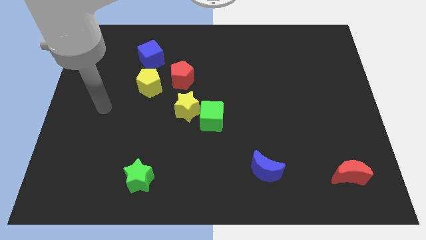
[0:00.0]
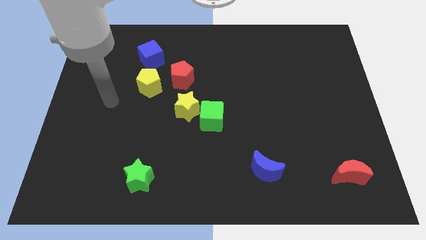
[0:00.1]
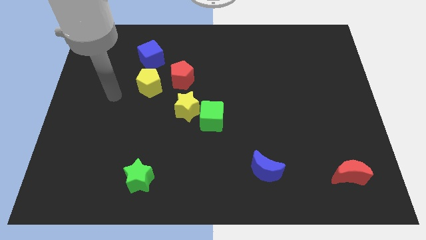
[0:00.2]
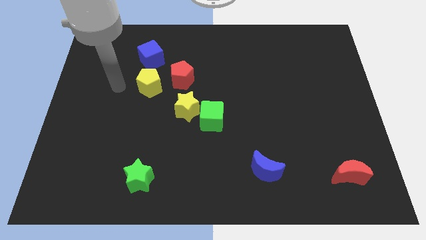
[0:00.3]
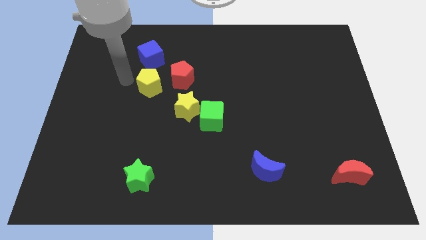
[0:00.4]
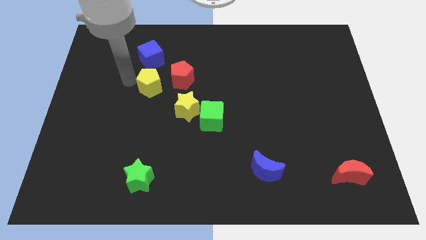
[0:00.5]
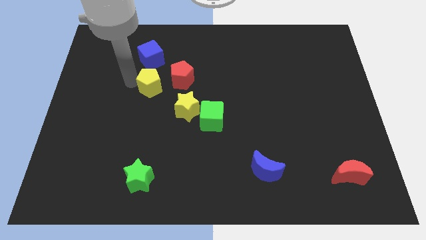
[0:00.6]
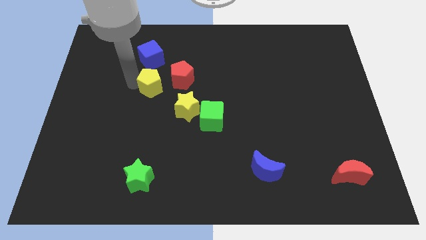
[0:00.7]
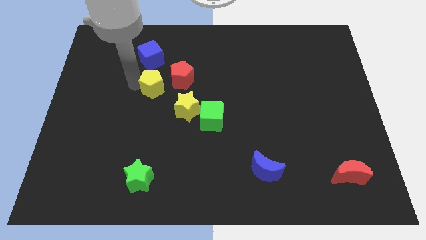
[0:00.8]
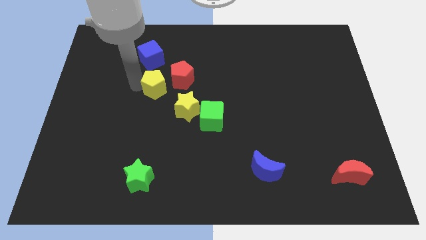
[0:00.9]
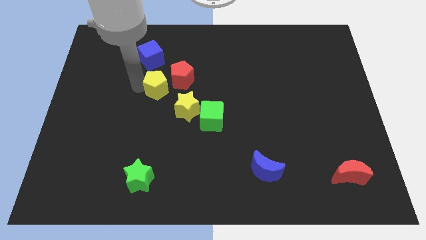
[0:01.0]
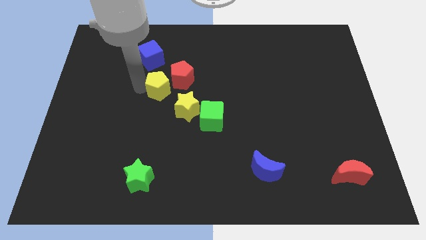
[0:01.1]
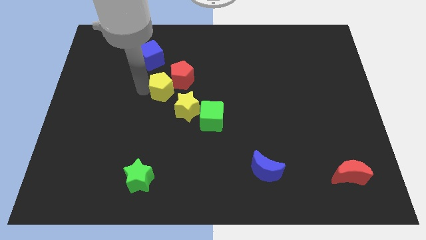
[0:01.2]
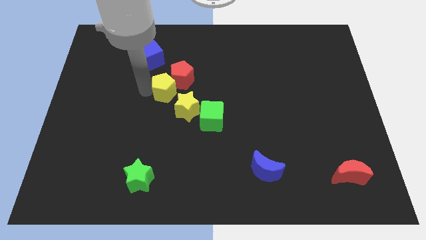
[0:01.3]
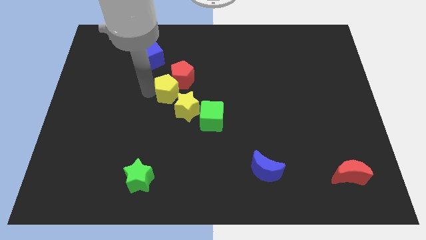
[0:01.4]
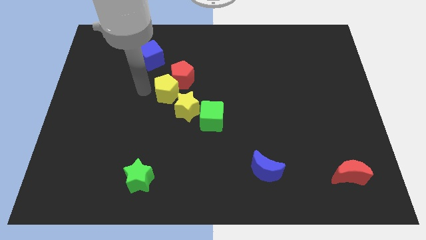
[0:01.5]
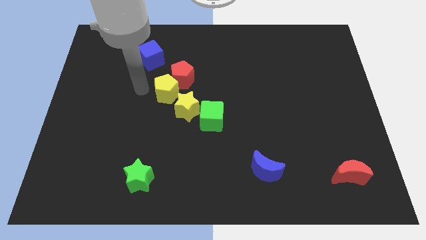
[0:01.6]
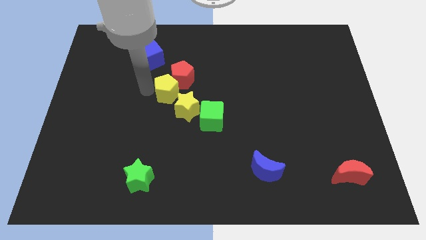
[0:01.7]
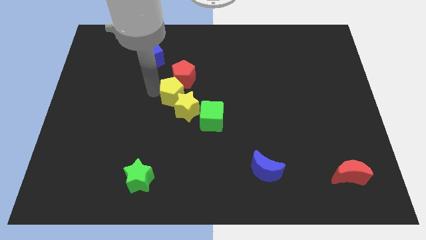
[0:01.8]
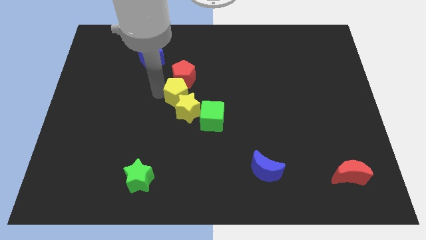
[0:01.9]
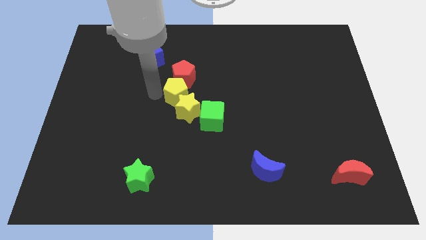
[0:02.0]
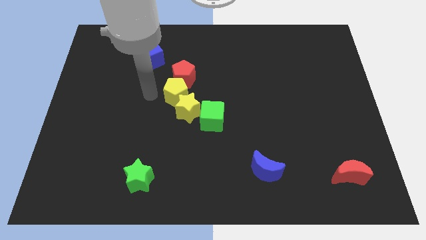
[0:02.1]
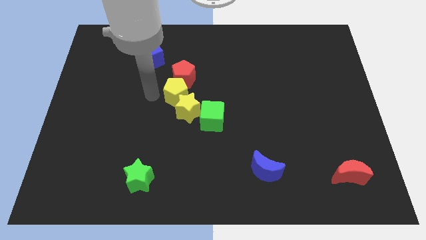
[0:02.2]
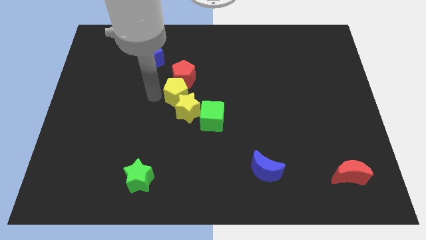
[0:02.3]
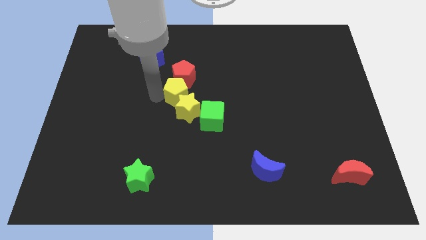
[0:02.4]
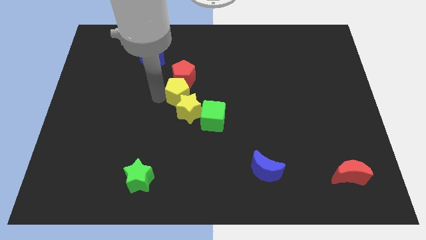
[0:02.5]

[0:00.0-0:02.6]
slide the yellow pentagon to the right slightly

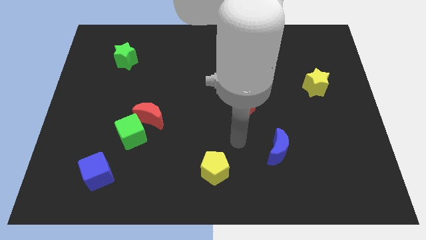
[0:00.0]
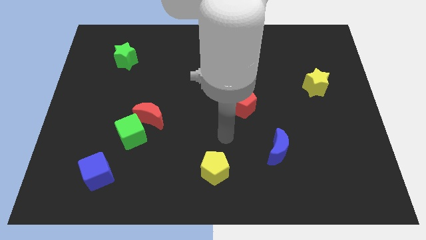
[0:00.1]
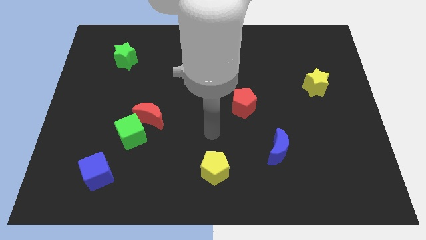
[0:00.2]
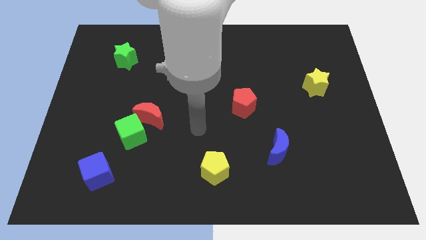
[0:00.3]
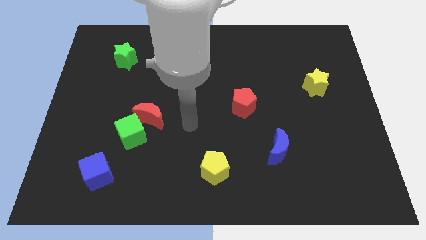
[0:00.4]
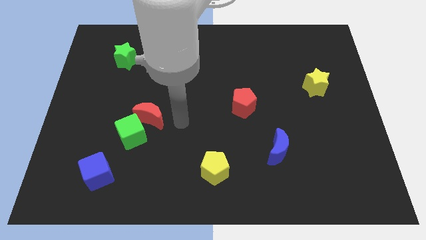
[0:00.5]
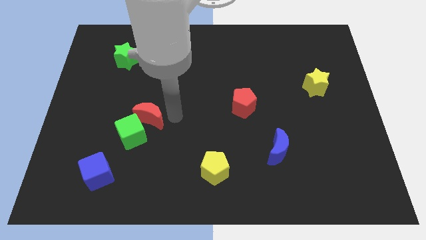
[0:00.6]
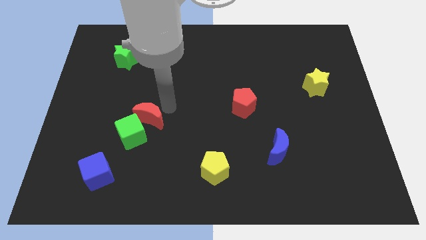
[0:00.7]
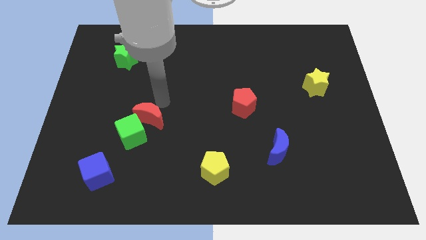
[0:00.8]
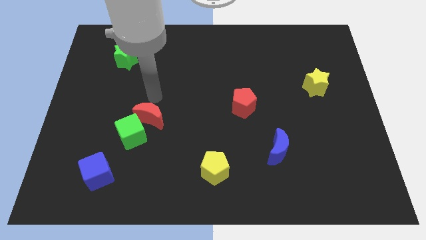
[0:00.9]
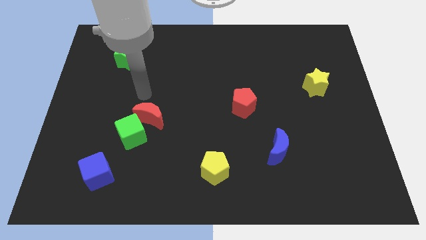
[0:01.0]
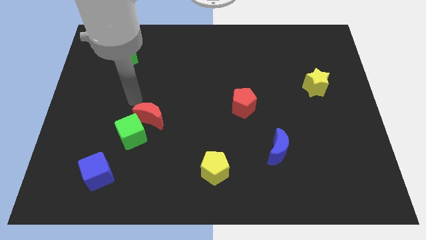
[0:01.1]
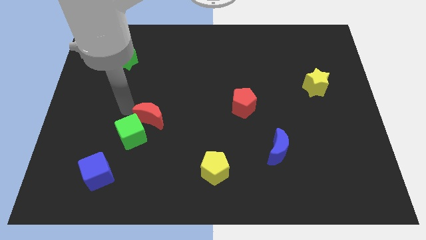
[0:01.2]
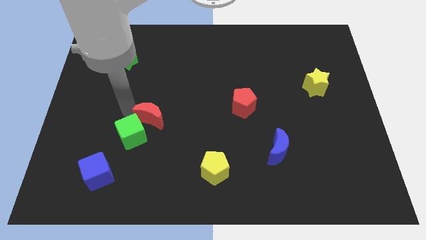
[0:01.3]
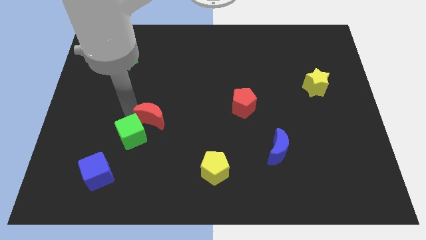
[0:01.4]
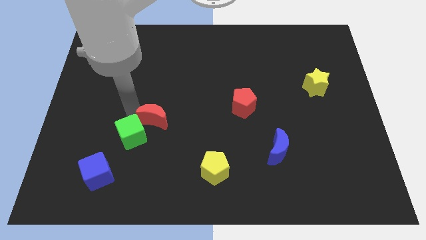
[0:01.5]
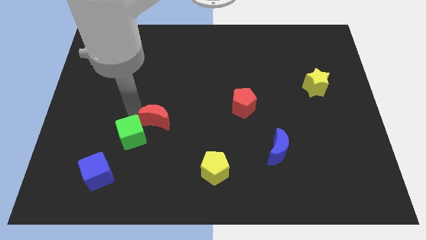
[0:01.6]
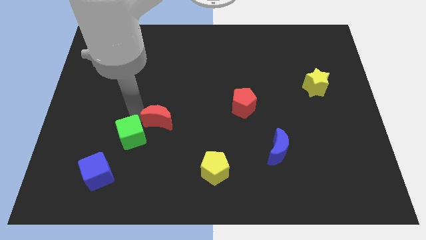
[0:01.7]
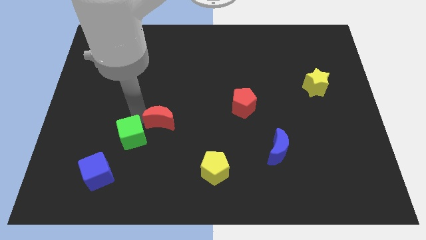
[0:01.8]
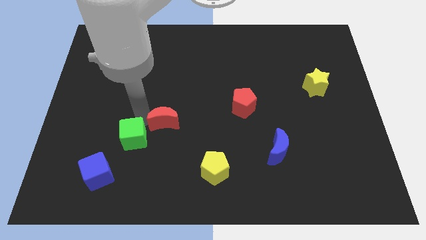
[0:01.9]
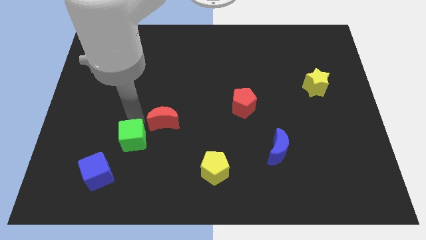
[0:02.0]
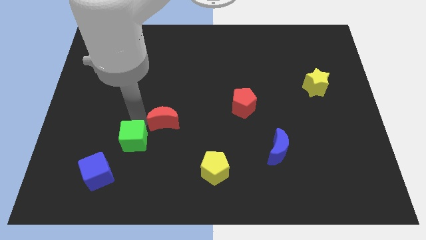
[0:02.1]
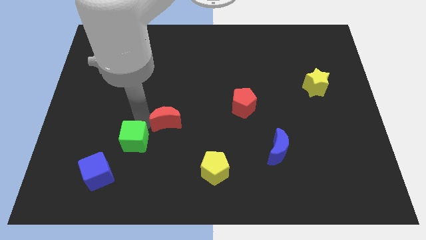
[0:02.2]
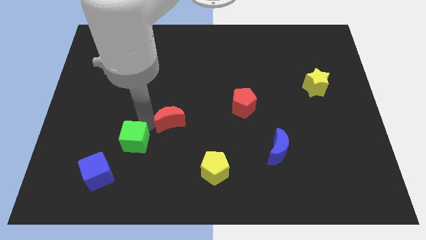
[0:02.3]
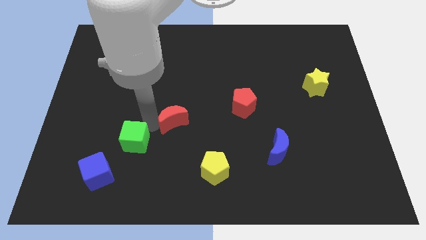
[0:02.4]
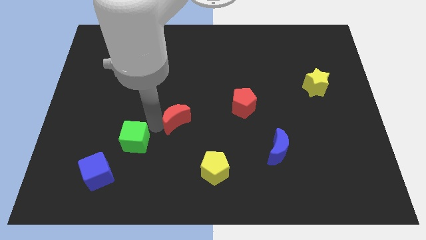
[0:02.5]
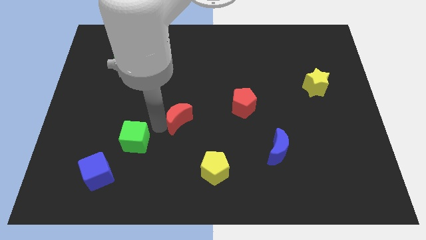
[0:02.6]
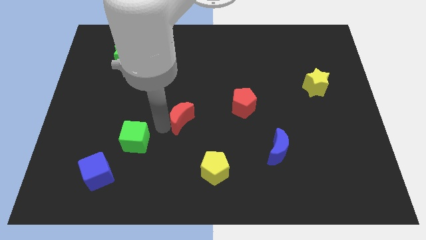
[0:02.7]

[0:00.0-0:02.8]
slide the red moon a bit to the right

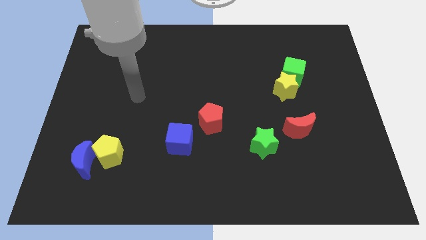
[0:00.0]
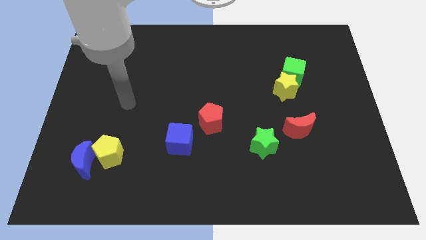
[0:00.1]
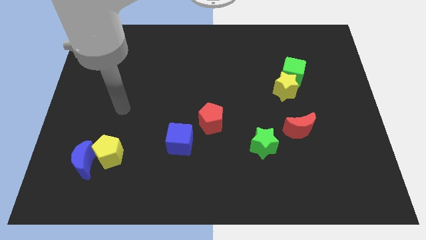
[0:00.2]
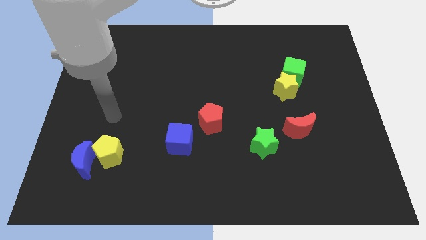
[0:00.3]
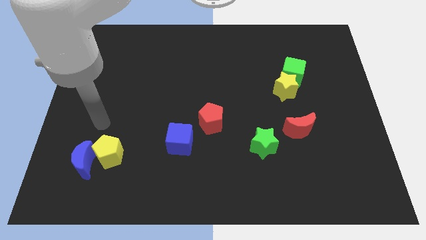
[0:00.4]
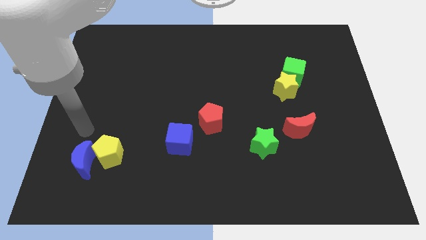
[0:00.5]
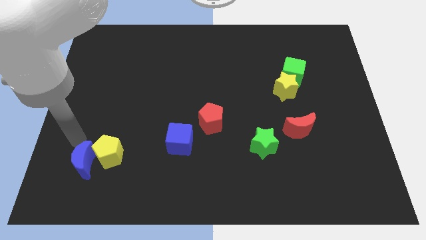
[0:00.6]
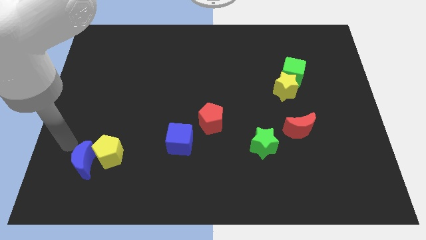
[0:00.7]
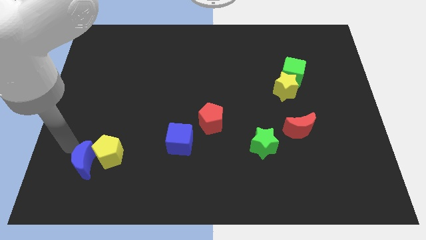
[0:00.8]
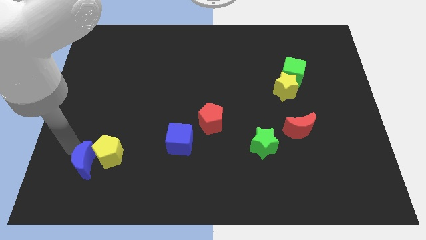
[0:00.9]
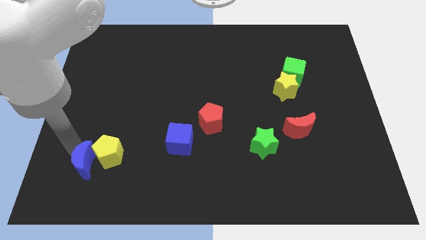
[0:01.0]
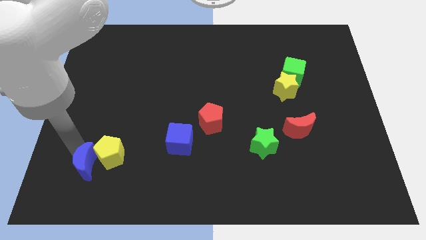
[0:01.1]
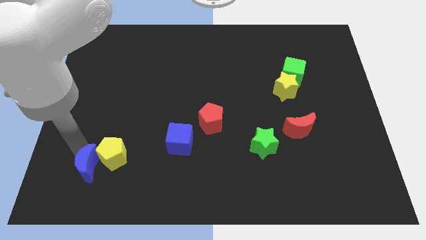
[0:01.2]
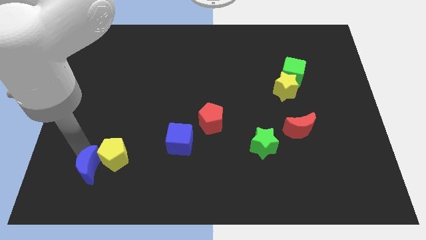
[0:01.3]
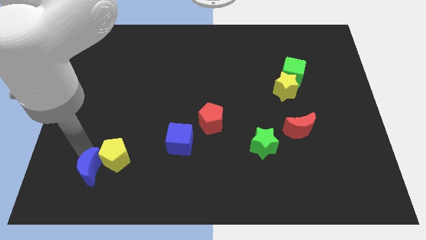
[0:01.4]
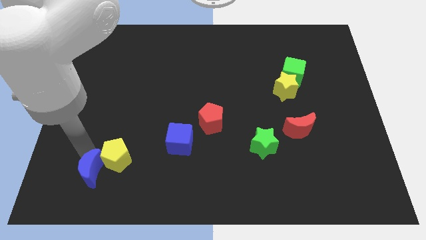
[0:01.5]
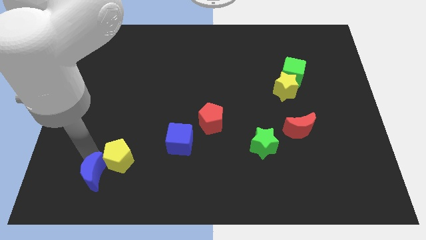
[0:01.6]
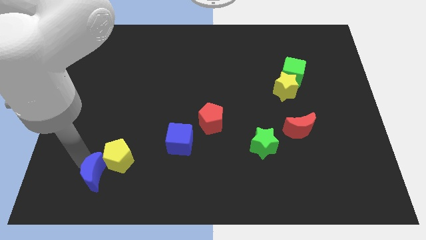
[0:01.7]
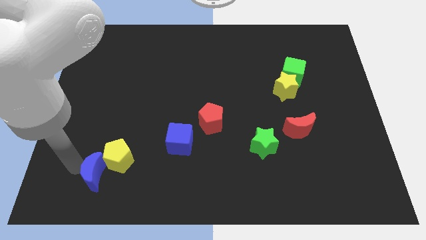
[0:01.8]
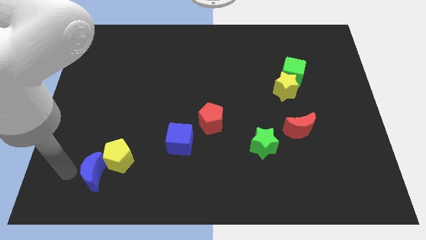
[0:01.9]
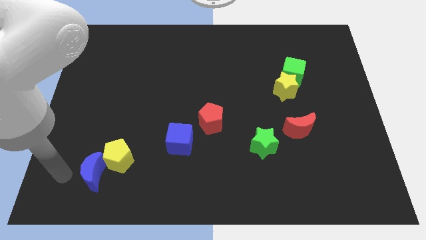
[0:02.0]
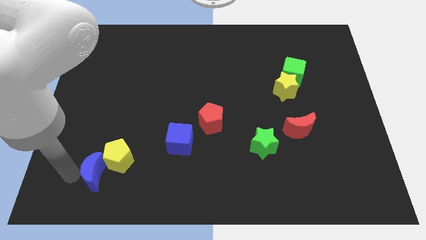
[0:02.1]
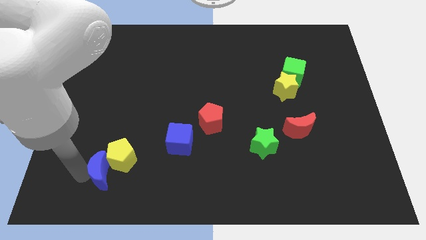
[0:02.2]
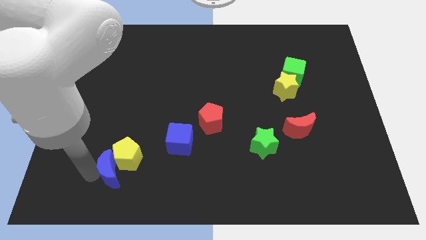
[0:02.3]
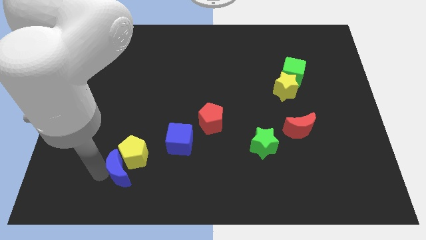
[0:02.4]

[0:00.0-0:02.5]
slightly slide the blue moon to the right

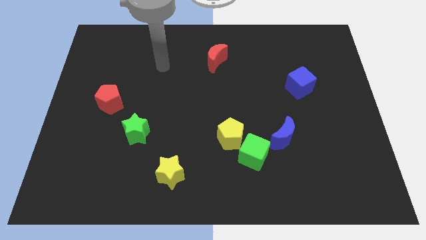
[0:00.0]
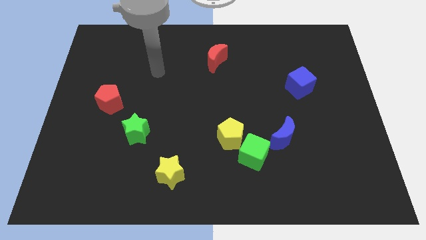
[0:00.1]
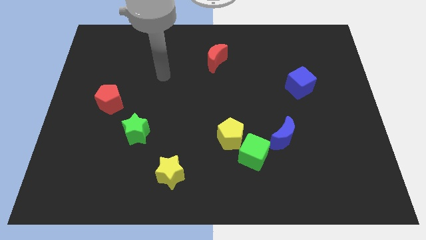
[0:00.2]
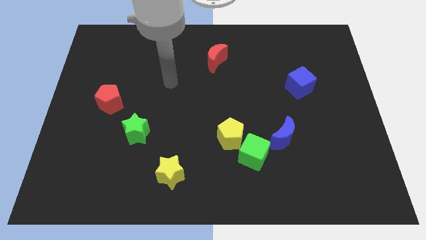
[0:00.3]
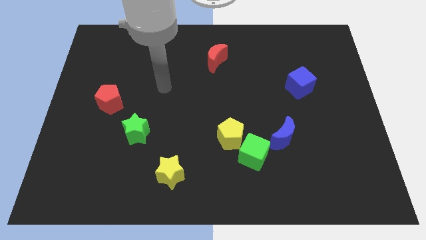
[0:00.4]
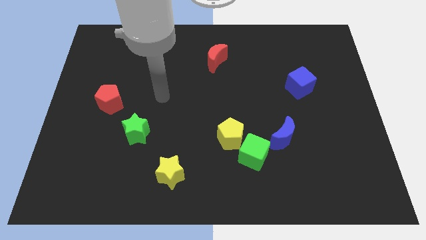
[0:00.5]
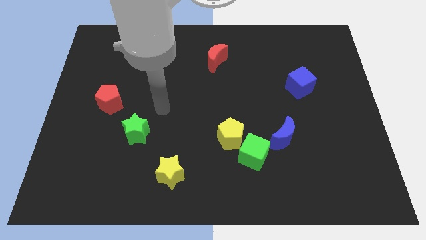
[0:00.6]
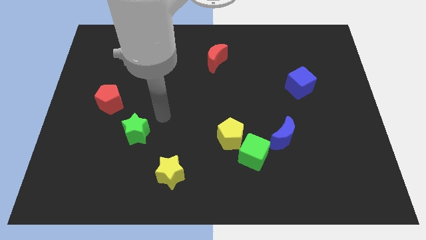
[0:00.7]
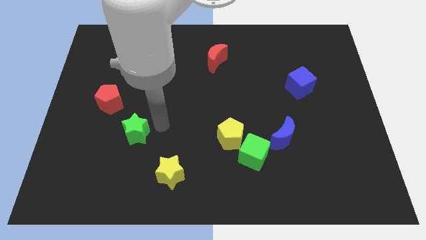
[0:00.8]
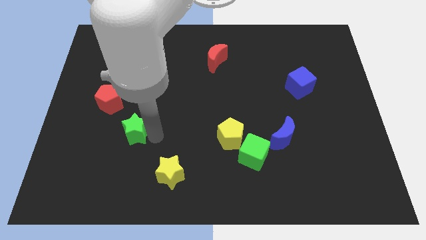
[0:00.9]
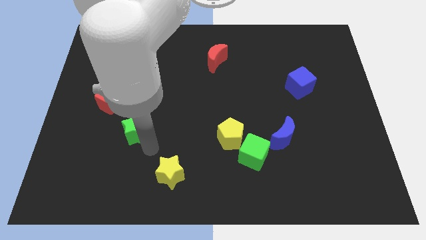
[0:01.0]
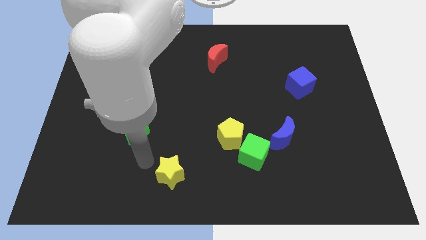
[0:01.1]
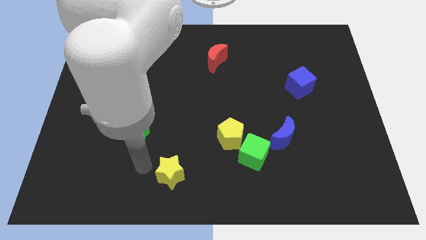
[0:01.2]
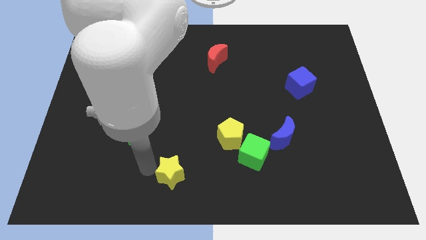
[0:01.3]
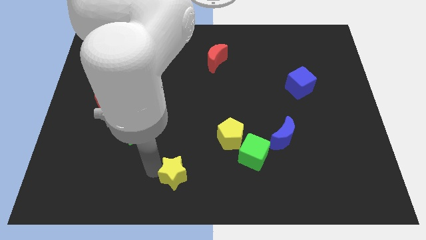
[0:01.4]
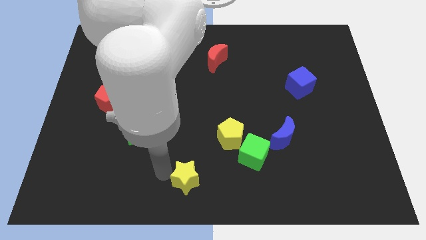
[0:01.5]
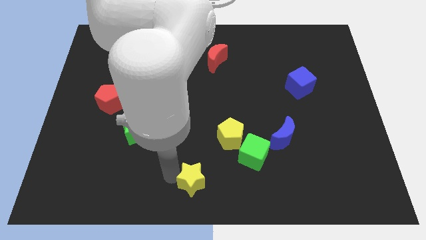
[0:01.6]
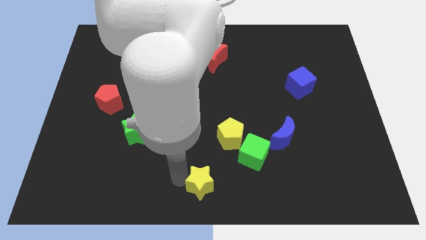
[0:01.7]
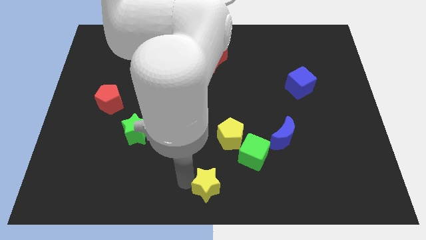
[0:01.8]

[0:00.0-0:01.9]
move the yellow star to the right a little bit
